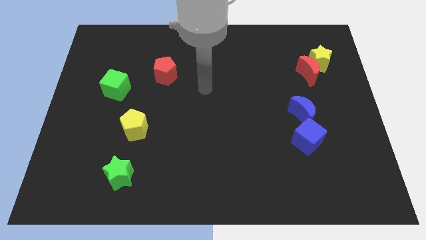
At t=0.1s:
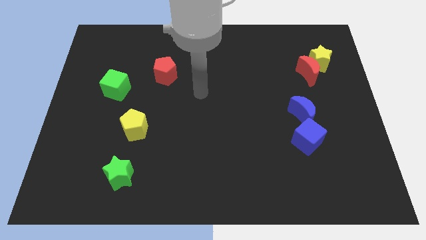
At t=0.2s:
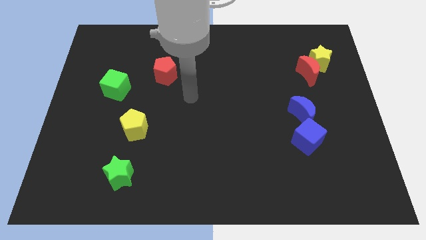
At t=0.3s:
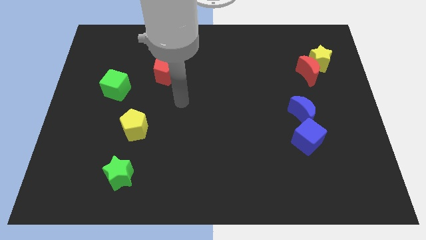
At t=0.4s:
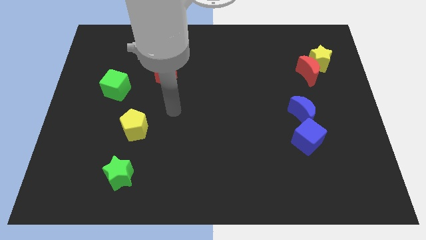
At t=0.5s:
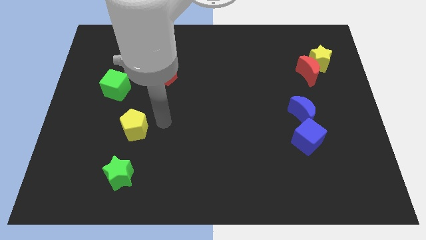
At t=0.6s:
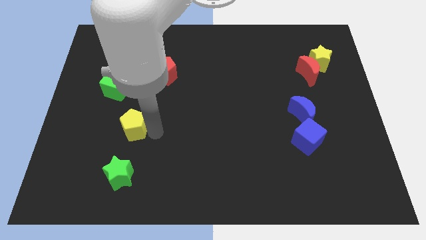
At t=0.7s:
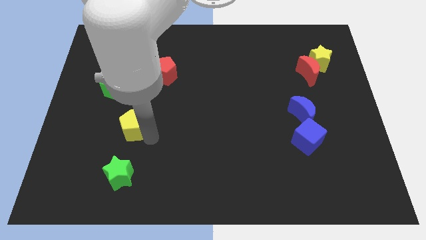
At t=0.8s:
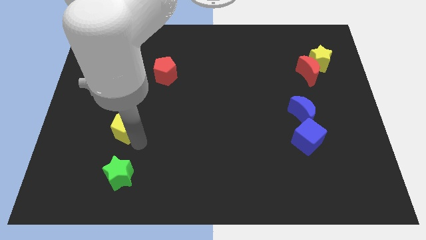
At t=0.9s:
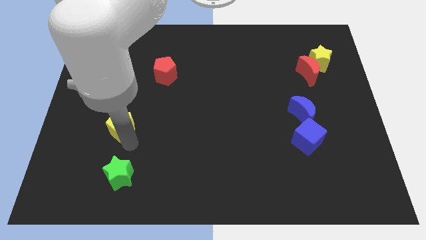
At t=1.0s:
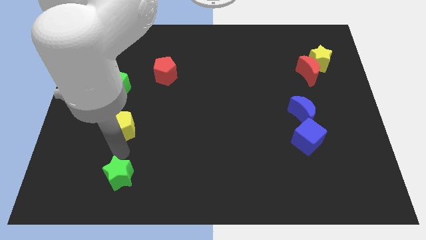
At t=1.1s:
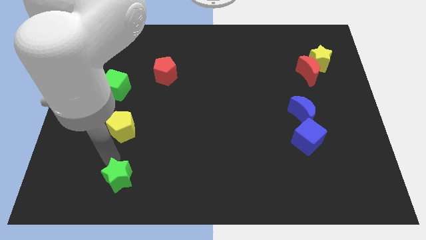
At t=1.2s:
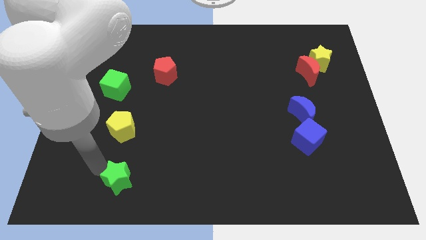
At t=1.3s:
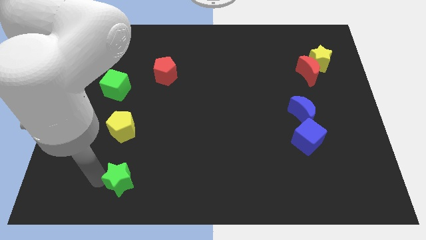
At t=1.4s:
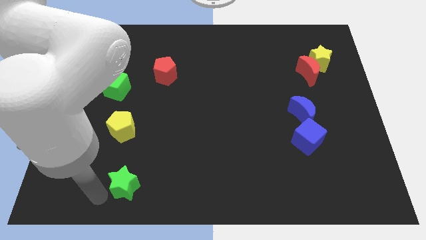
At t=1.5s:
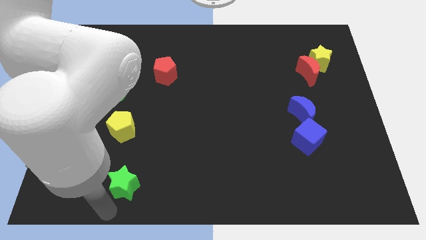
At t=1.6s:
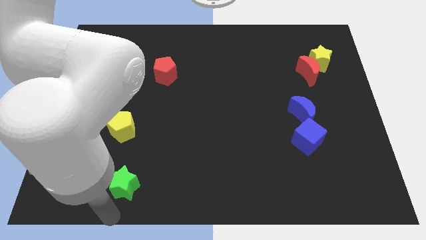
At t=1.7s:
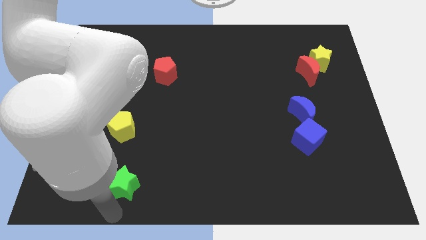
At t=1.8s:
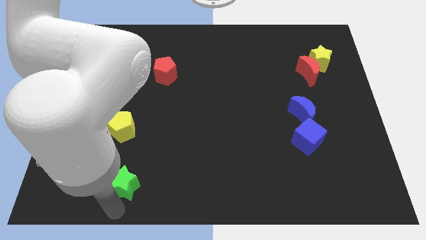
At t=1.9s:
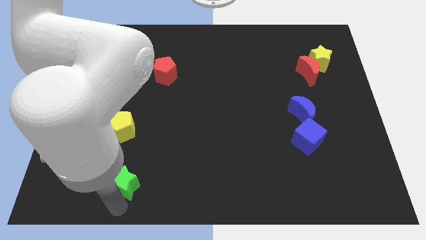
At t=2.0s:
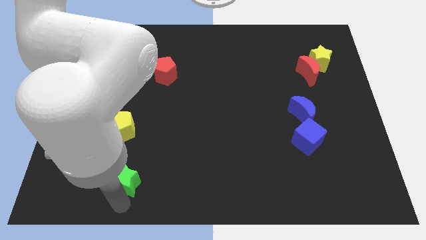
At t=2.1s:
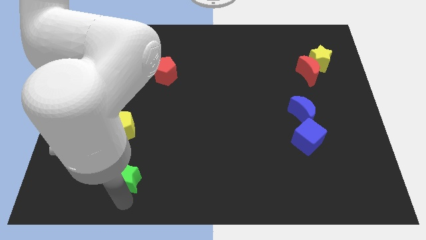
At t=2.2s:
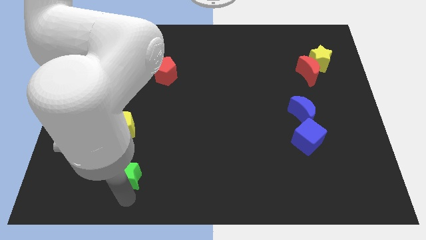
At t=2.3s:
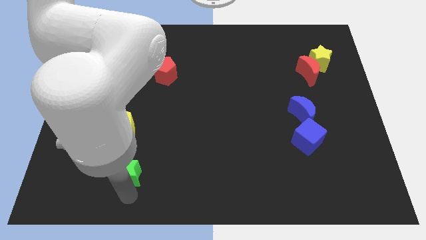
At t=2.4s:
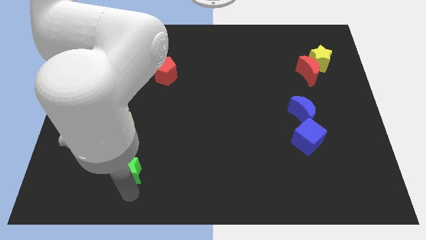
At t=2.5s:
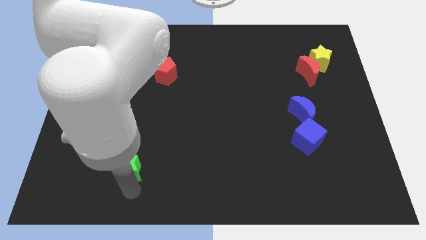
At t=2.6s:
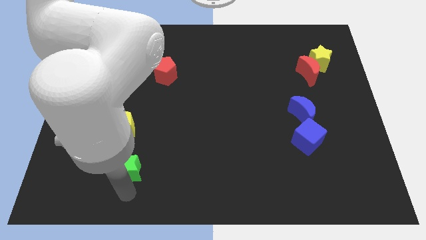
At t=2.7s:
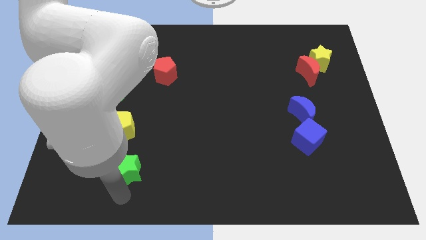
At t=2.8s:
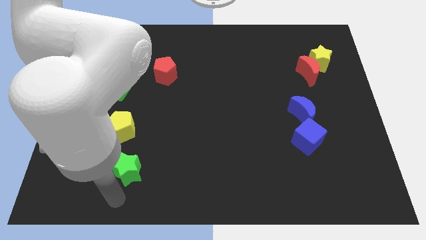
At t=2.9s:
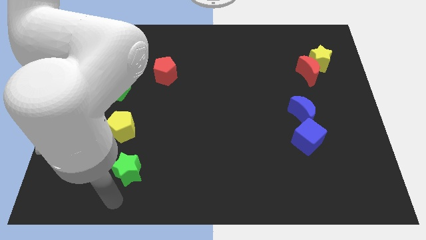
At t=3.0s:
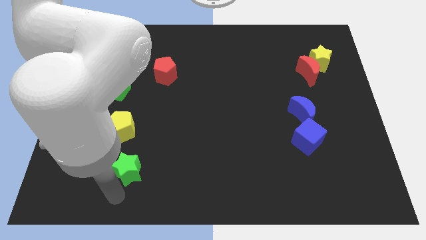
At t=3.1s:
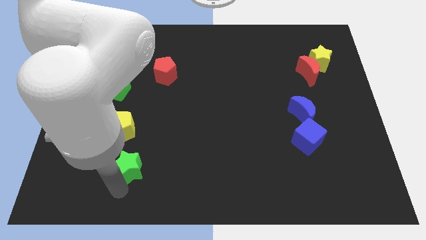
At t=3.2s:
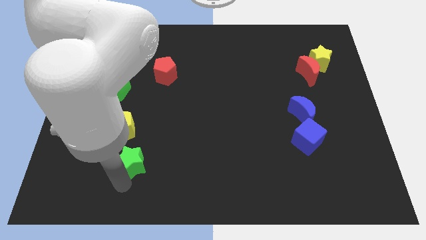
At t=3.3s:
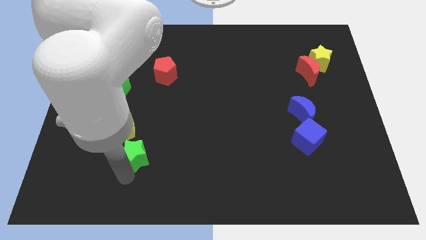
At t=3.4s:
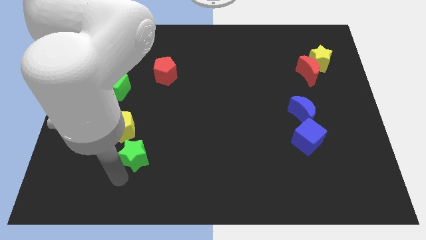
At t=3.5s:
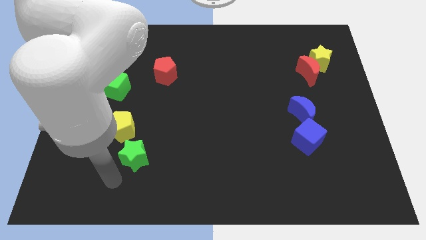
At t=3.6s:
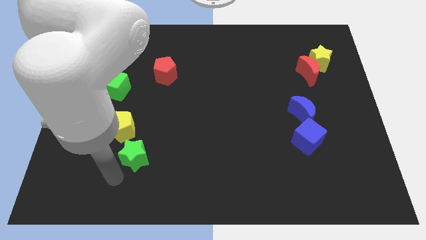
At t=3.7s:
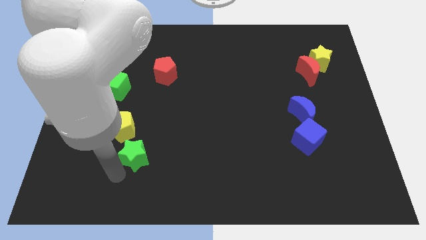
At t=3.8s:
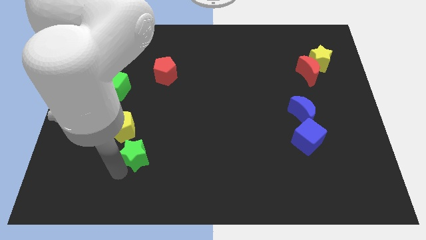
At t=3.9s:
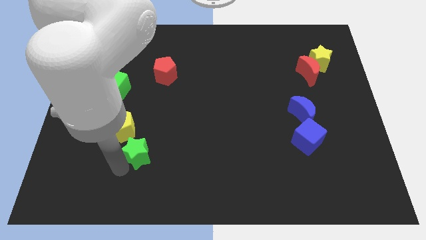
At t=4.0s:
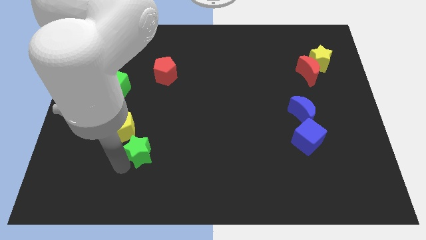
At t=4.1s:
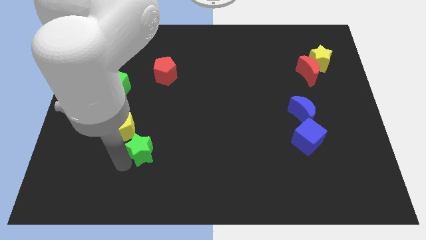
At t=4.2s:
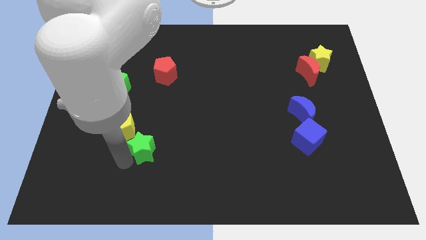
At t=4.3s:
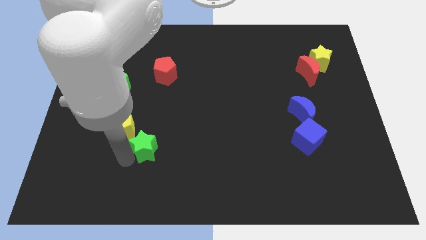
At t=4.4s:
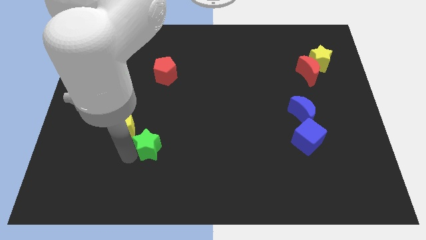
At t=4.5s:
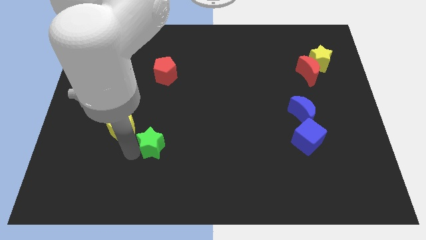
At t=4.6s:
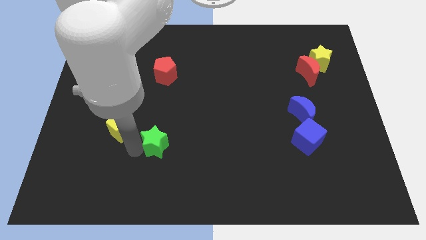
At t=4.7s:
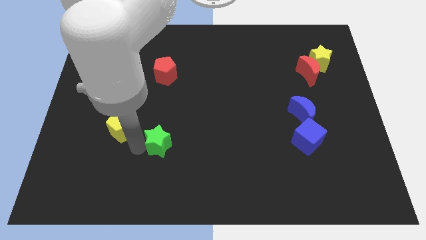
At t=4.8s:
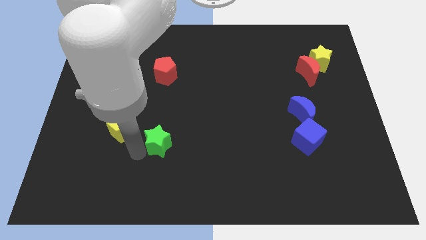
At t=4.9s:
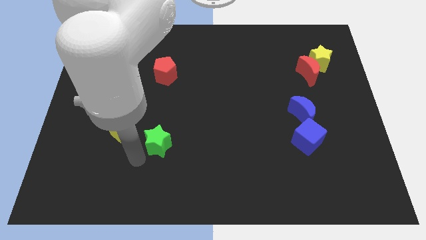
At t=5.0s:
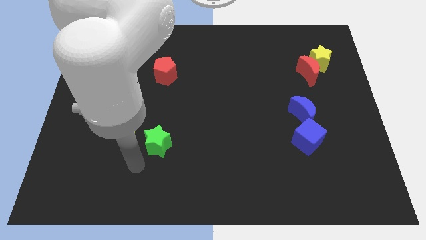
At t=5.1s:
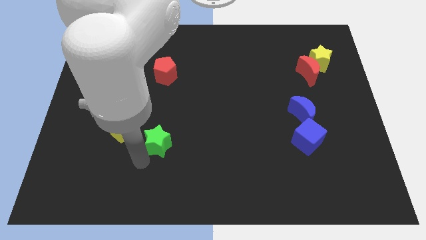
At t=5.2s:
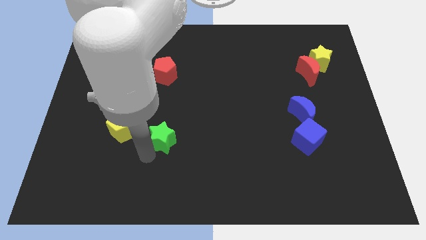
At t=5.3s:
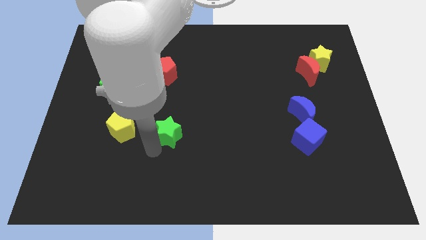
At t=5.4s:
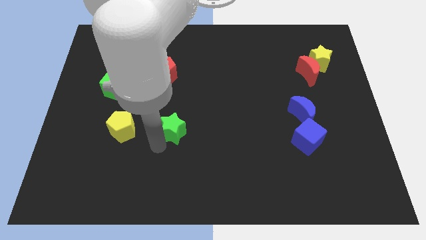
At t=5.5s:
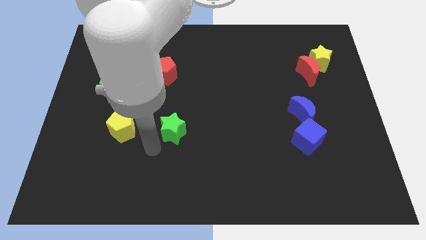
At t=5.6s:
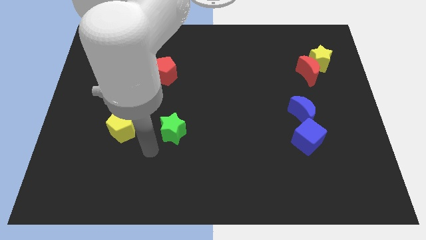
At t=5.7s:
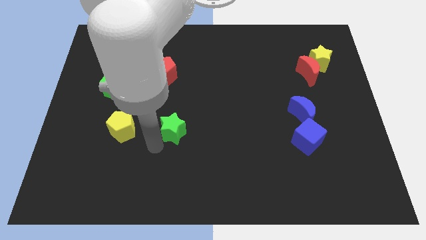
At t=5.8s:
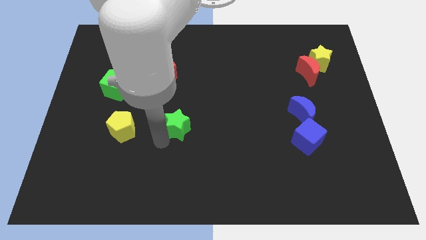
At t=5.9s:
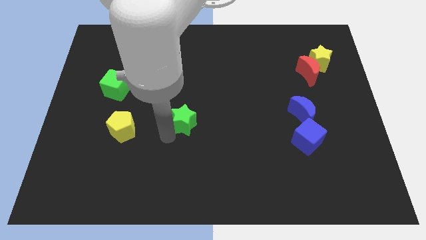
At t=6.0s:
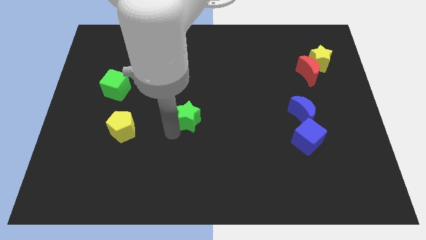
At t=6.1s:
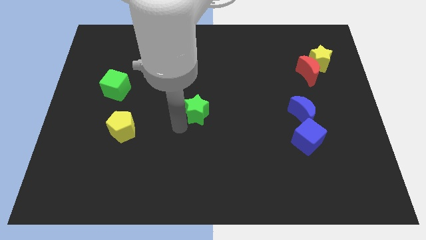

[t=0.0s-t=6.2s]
move the green star diagonally up and to the right

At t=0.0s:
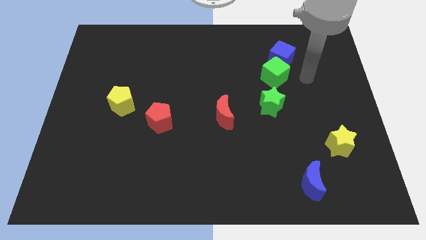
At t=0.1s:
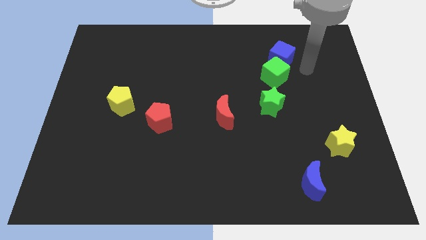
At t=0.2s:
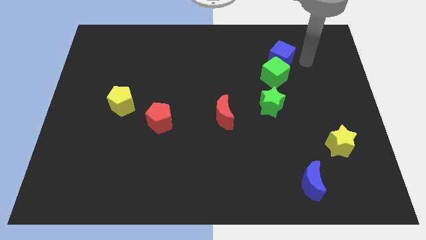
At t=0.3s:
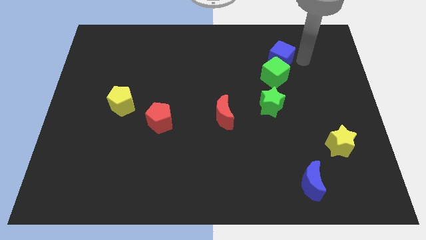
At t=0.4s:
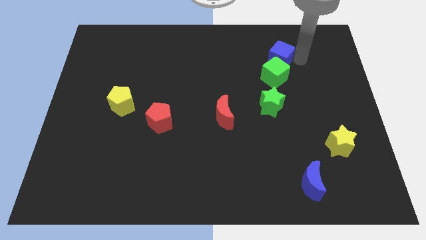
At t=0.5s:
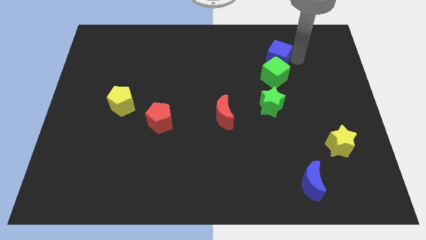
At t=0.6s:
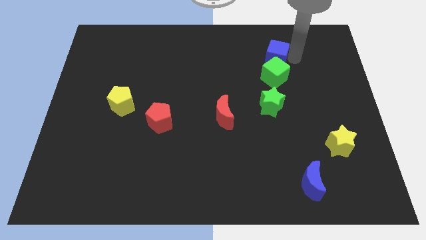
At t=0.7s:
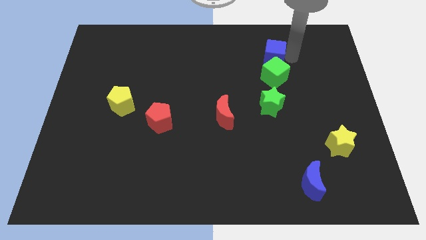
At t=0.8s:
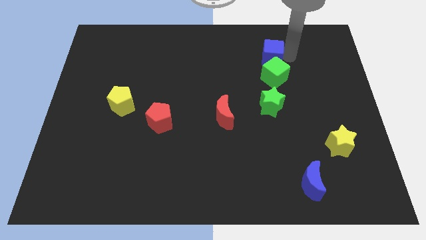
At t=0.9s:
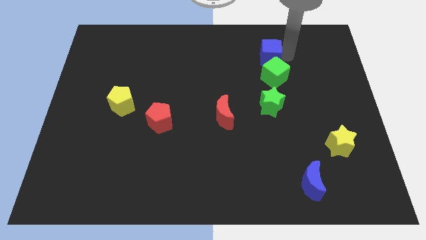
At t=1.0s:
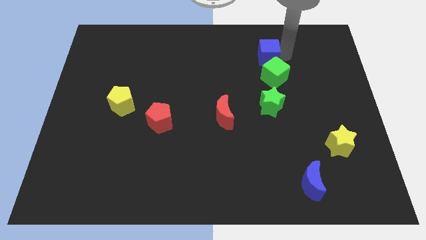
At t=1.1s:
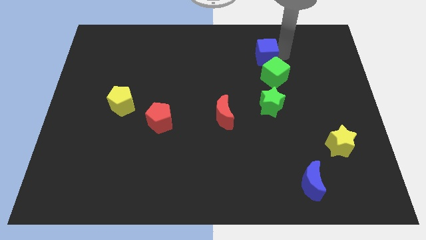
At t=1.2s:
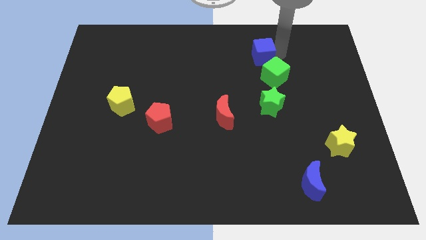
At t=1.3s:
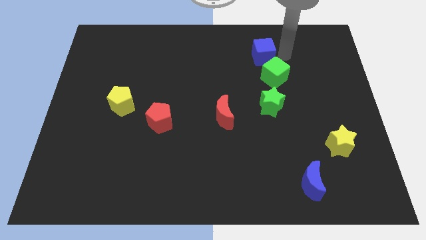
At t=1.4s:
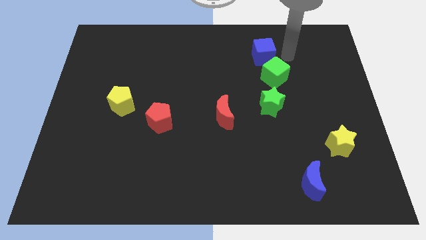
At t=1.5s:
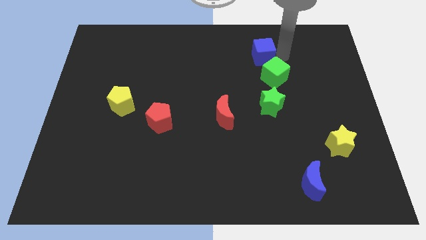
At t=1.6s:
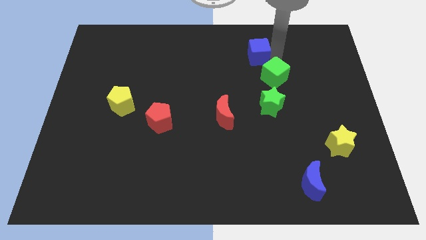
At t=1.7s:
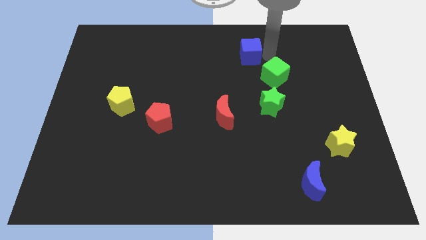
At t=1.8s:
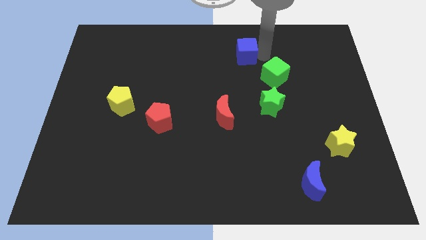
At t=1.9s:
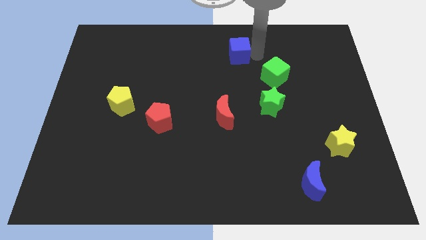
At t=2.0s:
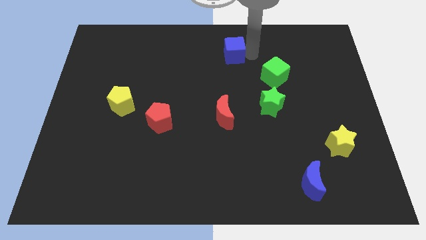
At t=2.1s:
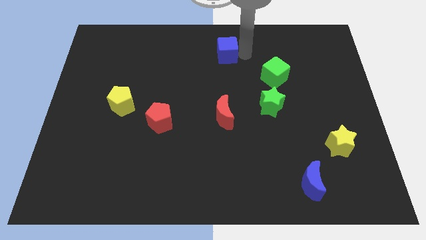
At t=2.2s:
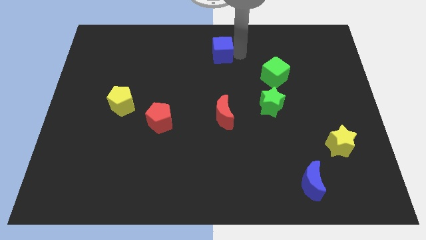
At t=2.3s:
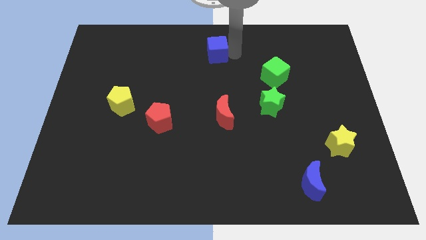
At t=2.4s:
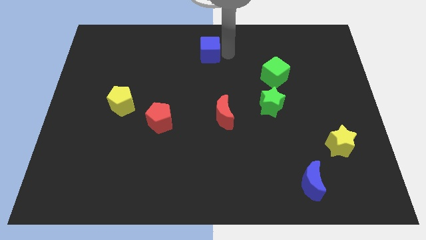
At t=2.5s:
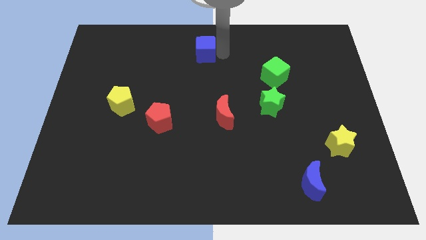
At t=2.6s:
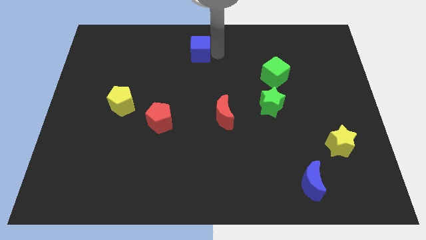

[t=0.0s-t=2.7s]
push the blue cube left
